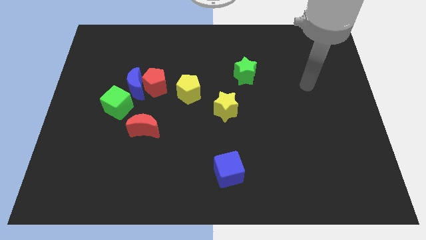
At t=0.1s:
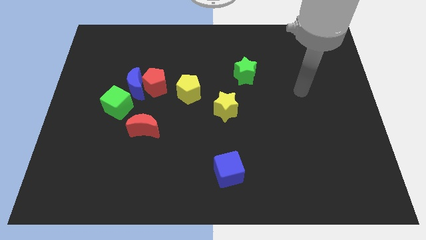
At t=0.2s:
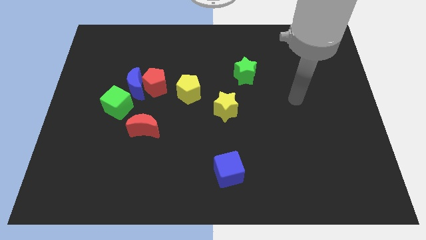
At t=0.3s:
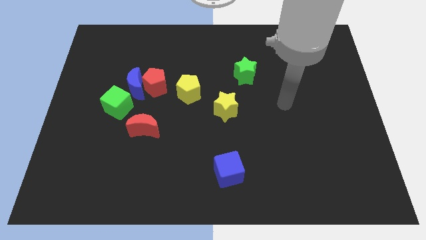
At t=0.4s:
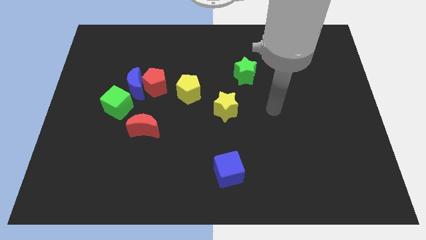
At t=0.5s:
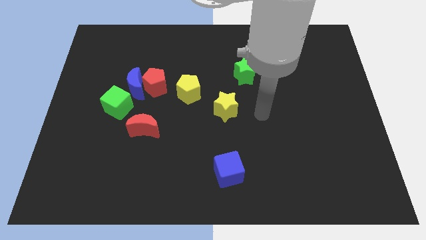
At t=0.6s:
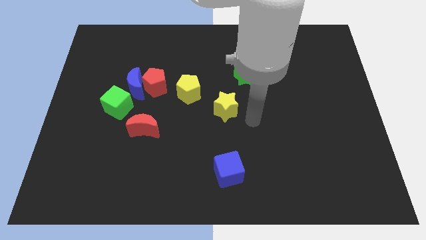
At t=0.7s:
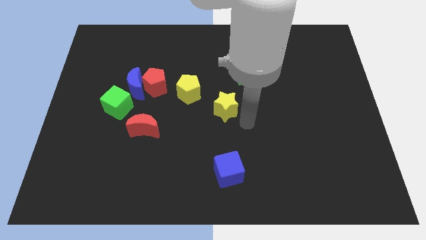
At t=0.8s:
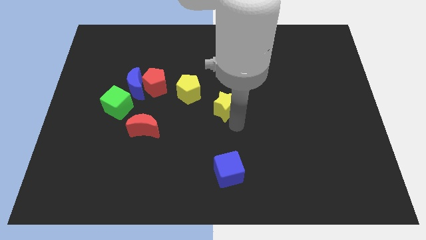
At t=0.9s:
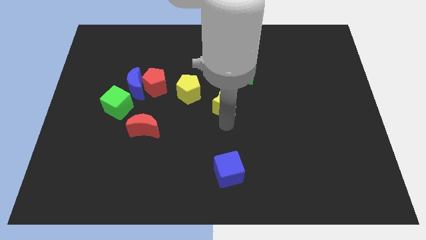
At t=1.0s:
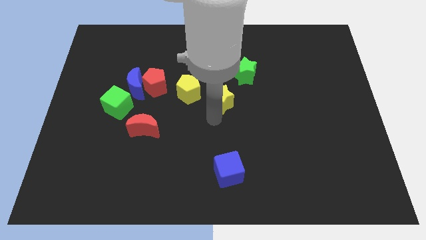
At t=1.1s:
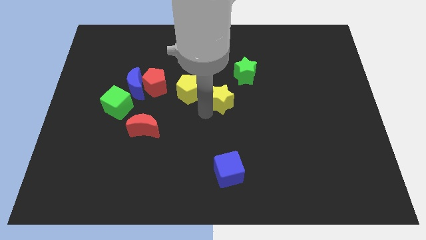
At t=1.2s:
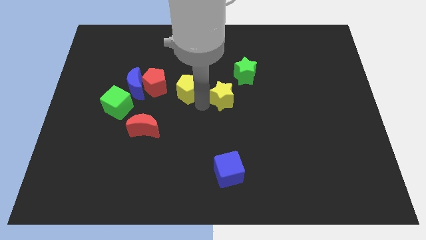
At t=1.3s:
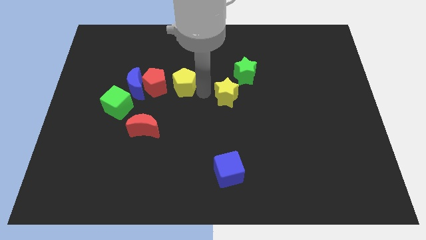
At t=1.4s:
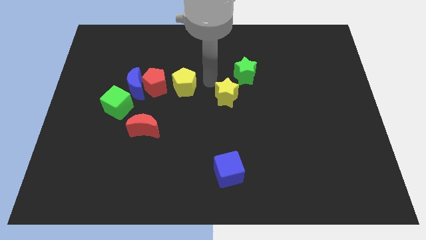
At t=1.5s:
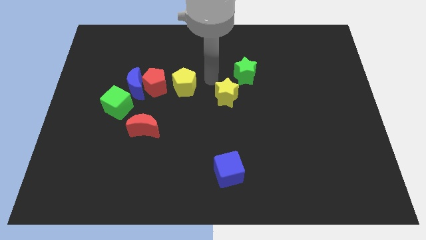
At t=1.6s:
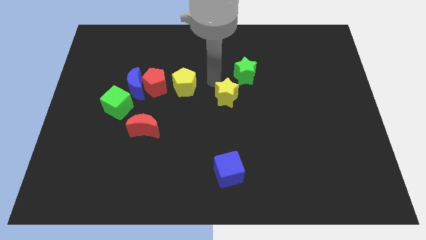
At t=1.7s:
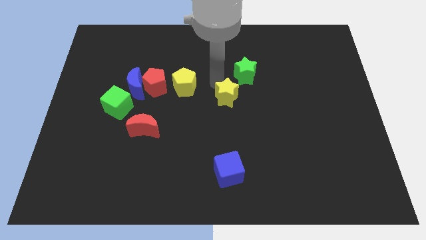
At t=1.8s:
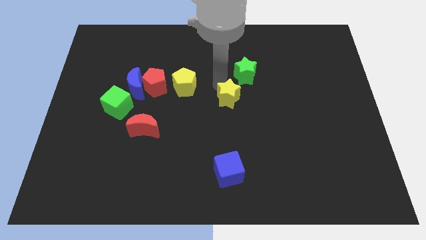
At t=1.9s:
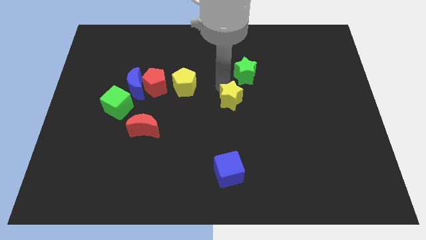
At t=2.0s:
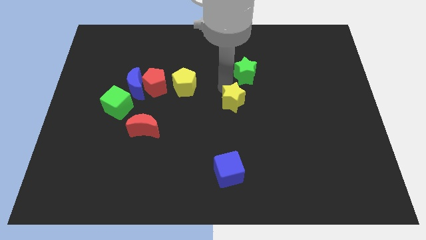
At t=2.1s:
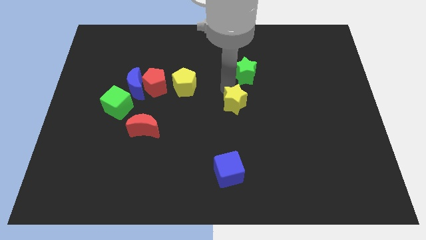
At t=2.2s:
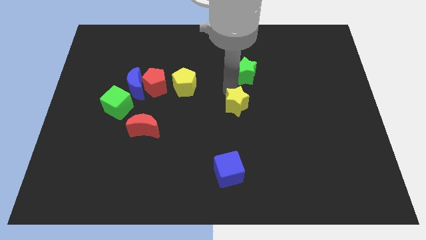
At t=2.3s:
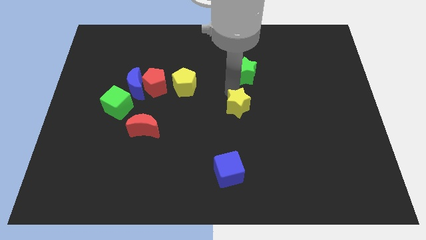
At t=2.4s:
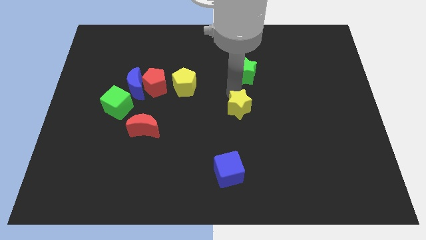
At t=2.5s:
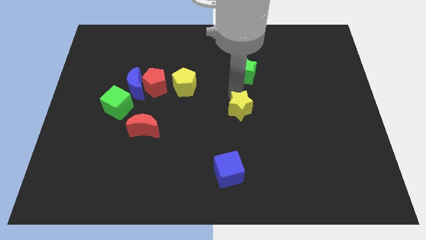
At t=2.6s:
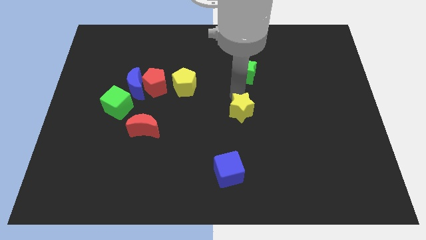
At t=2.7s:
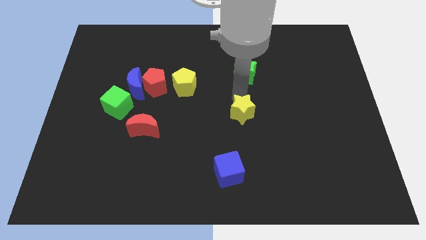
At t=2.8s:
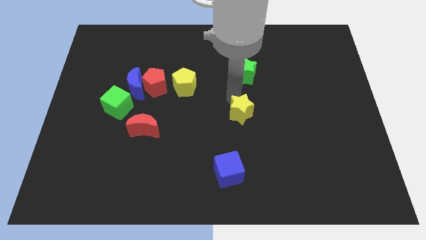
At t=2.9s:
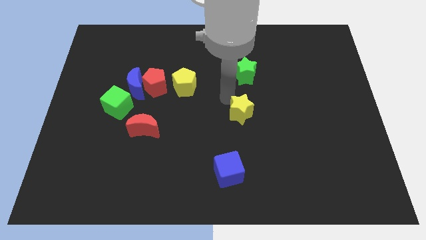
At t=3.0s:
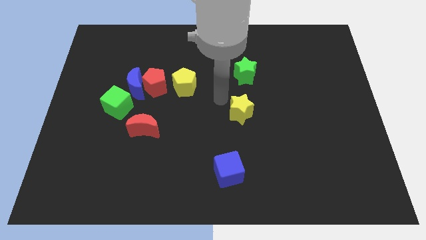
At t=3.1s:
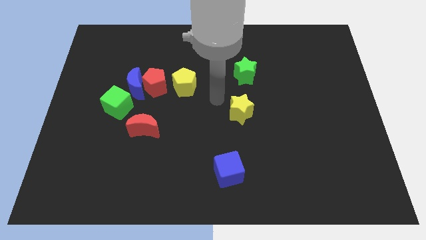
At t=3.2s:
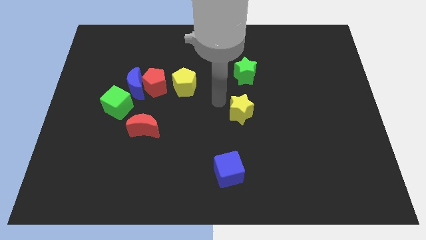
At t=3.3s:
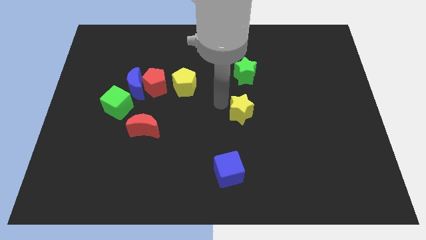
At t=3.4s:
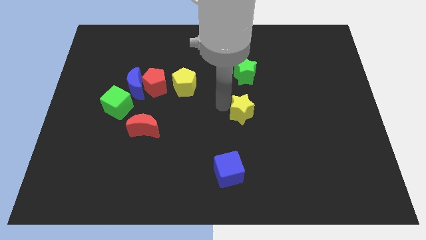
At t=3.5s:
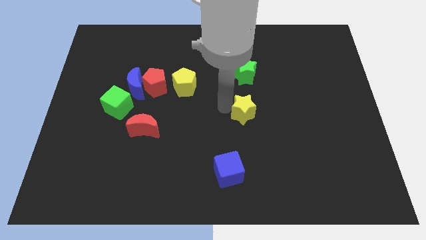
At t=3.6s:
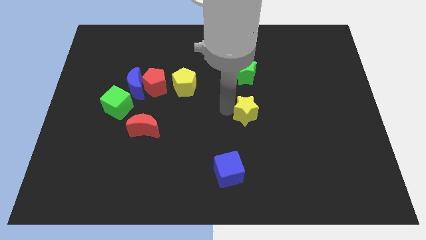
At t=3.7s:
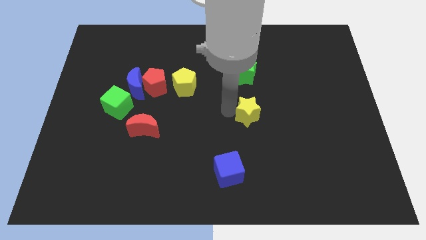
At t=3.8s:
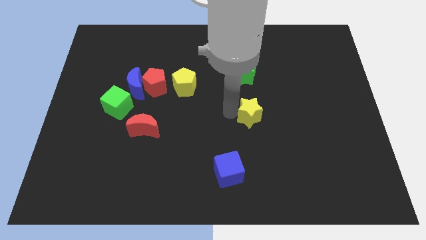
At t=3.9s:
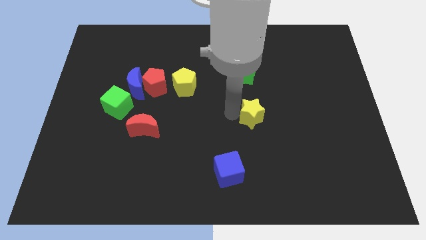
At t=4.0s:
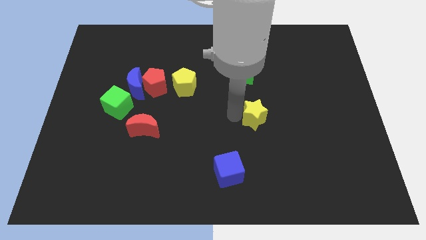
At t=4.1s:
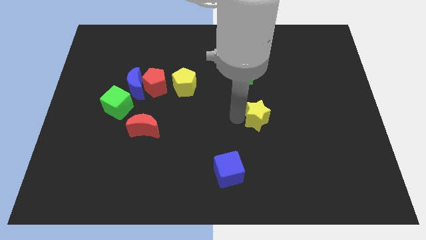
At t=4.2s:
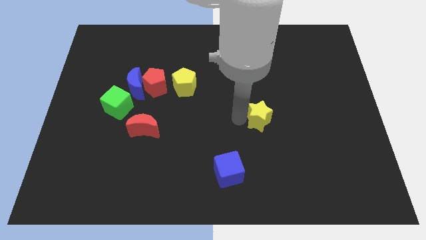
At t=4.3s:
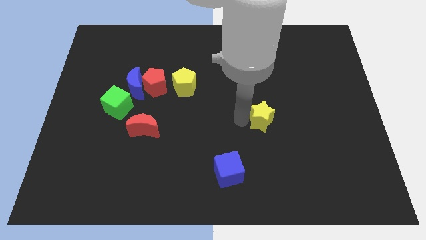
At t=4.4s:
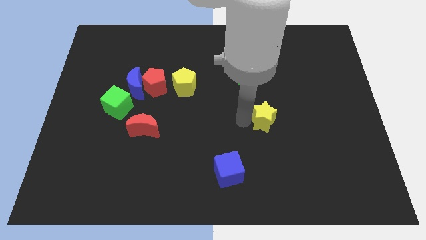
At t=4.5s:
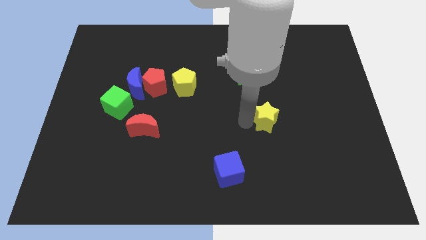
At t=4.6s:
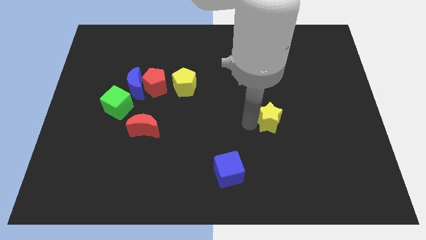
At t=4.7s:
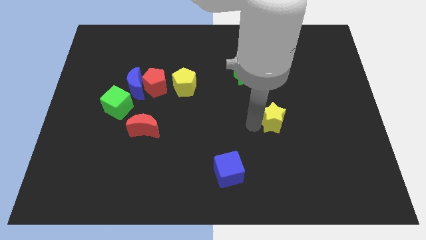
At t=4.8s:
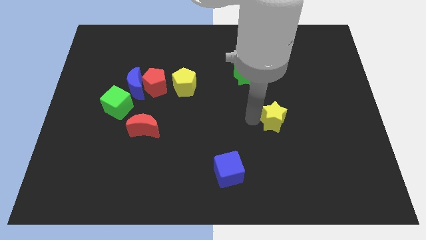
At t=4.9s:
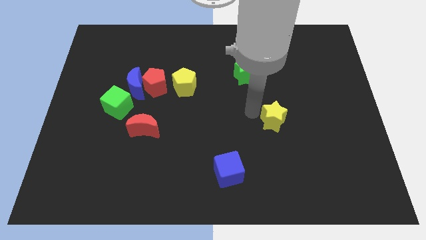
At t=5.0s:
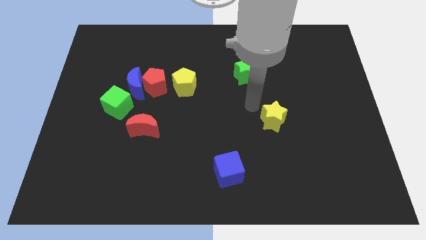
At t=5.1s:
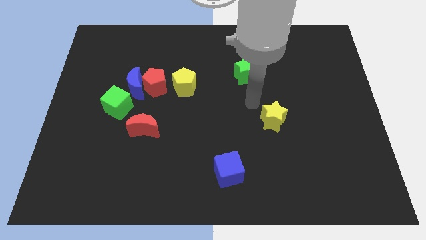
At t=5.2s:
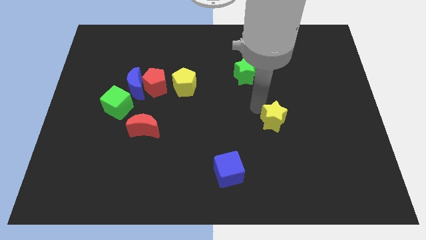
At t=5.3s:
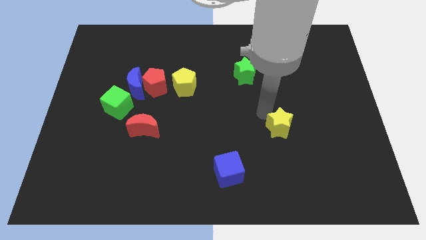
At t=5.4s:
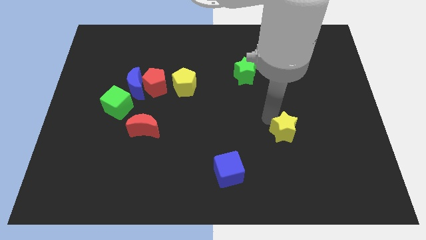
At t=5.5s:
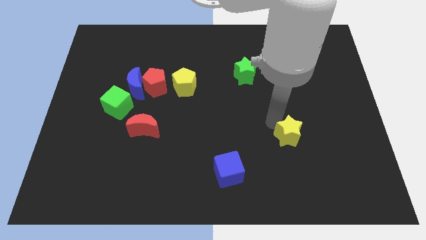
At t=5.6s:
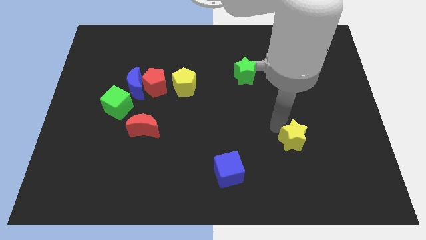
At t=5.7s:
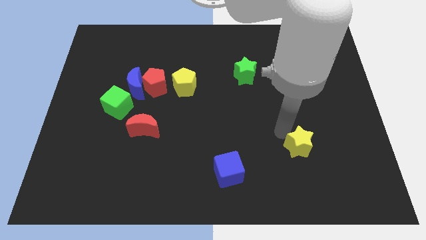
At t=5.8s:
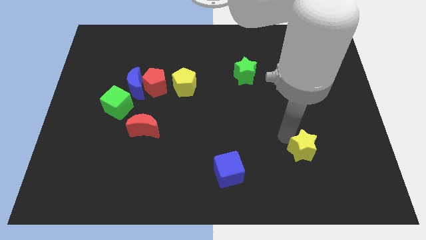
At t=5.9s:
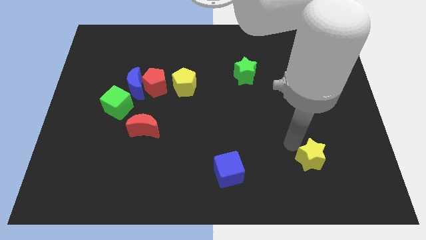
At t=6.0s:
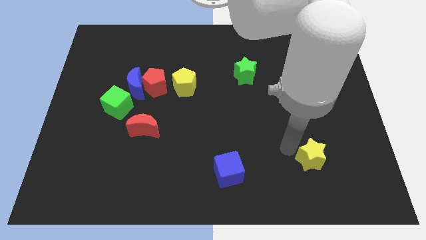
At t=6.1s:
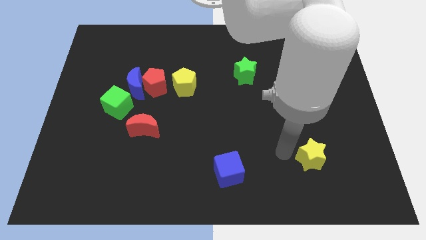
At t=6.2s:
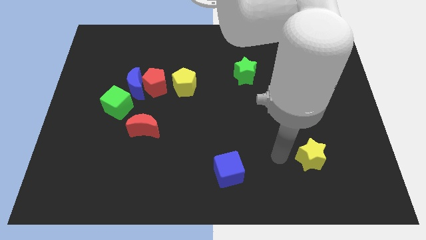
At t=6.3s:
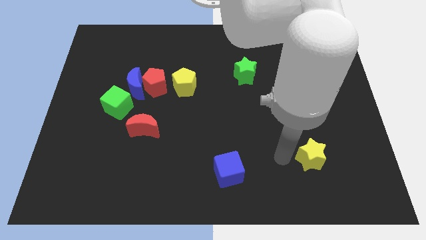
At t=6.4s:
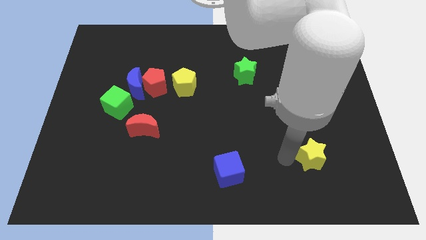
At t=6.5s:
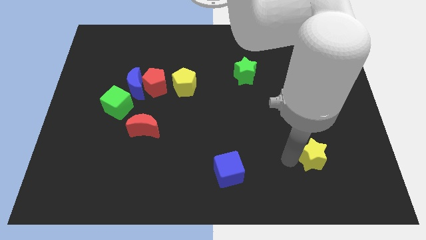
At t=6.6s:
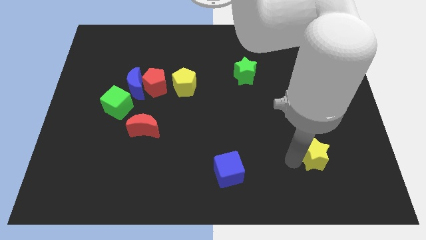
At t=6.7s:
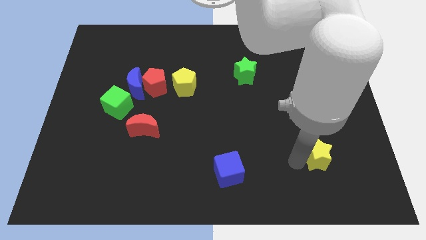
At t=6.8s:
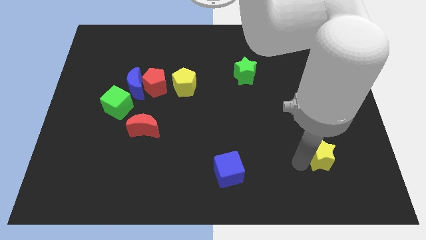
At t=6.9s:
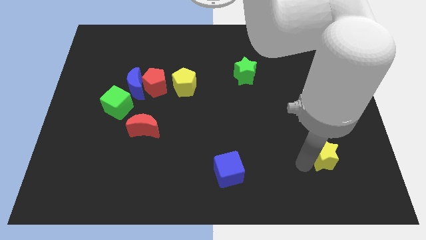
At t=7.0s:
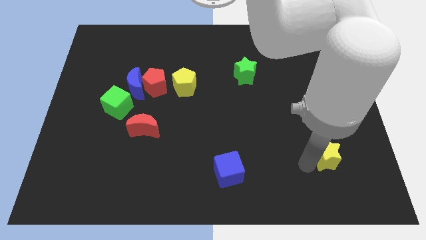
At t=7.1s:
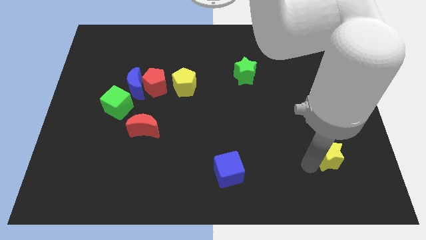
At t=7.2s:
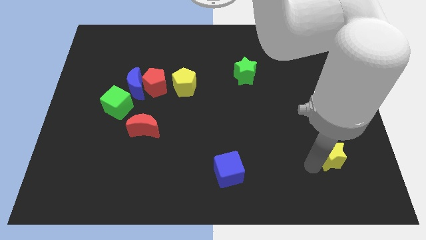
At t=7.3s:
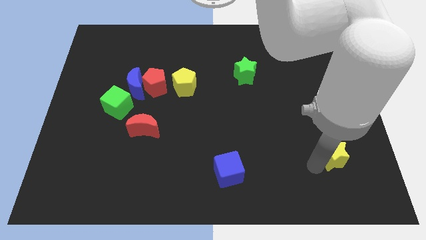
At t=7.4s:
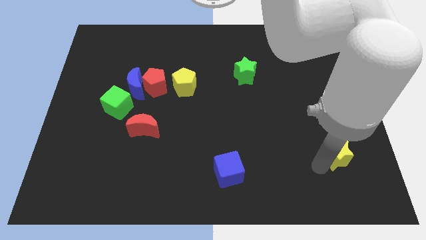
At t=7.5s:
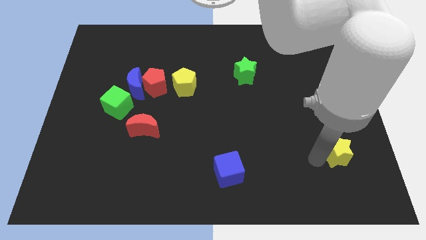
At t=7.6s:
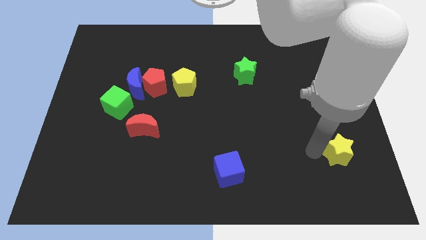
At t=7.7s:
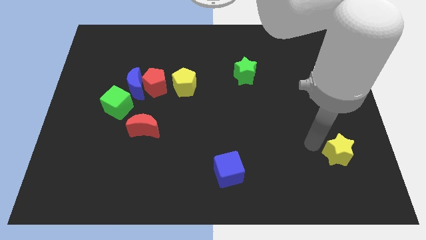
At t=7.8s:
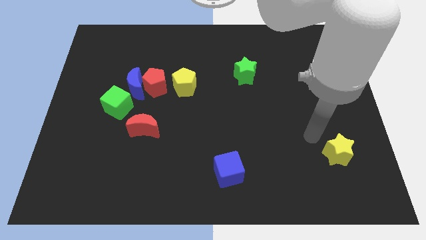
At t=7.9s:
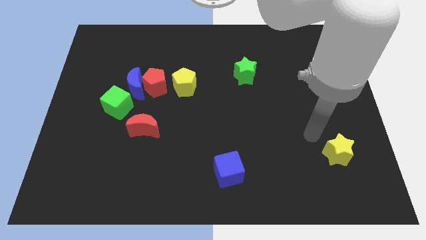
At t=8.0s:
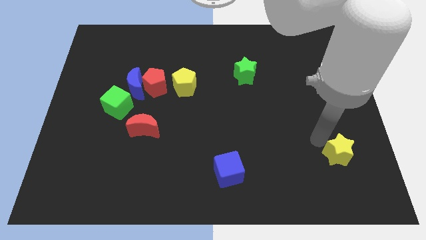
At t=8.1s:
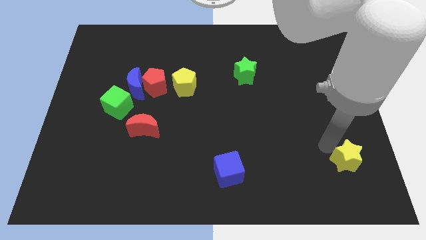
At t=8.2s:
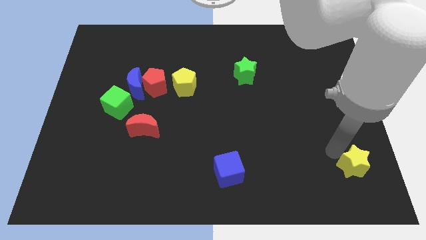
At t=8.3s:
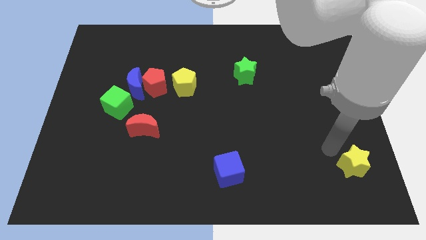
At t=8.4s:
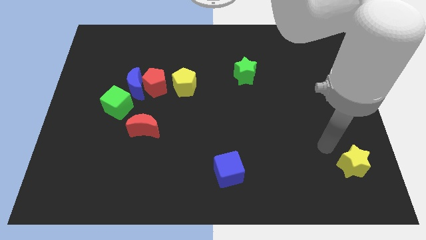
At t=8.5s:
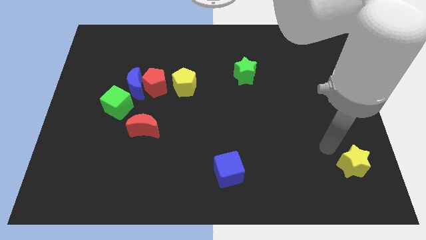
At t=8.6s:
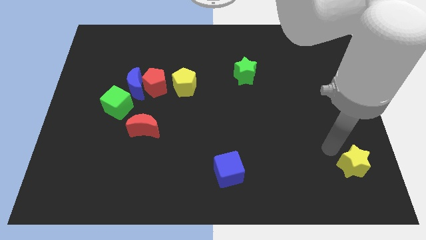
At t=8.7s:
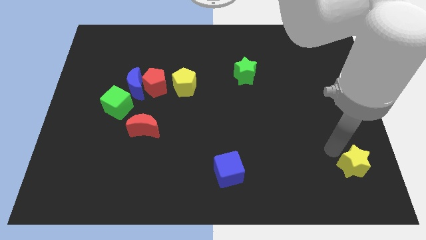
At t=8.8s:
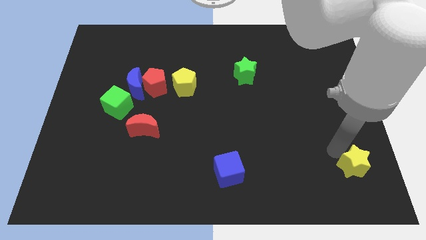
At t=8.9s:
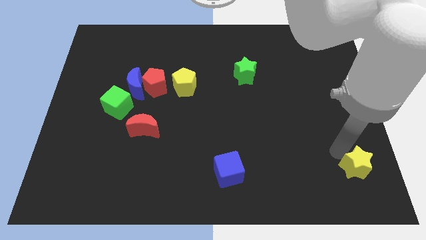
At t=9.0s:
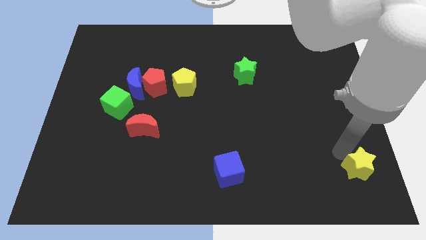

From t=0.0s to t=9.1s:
put the yellow star to the bottom right corner
